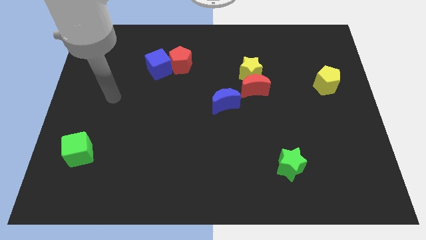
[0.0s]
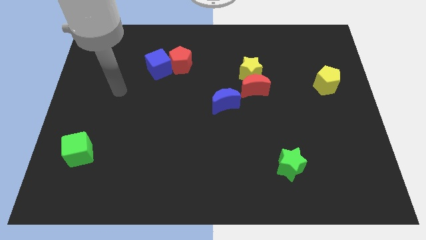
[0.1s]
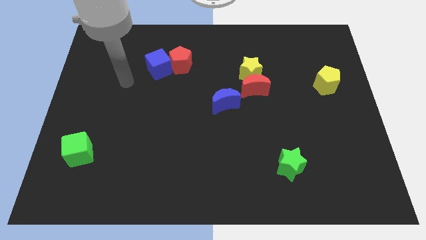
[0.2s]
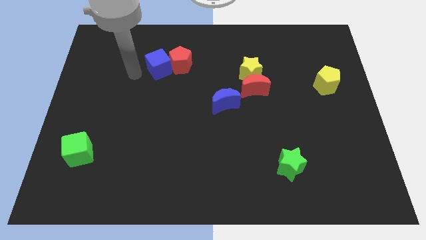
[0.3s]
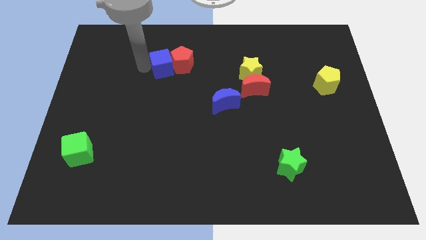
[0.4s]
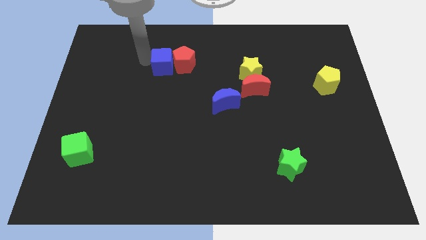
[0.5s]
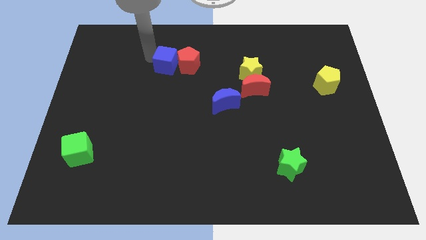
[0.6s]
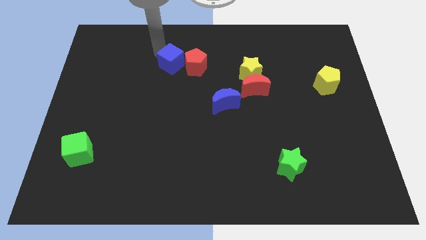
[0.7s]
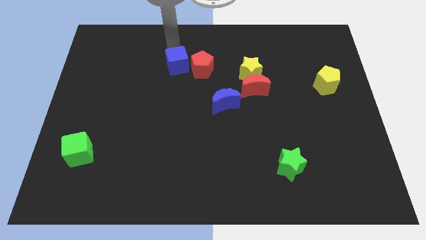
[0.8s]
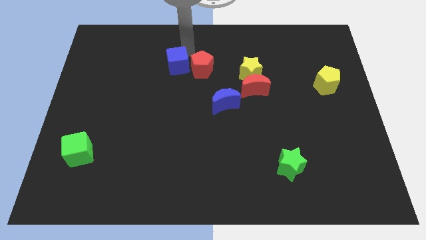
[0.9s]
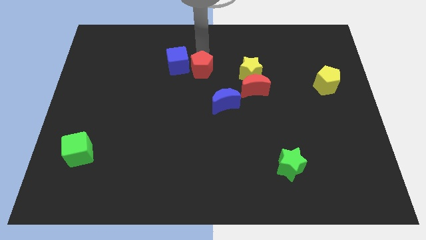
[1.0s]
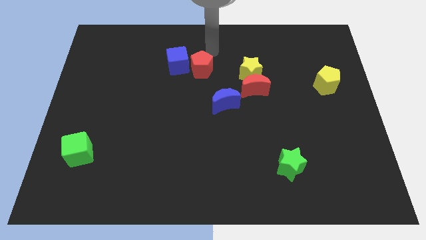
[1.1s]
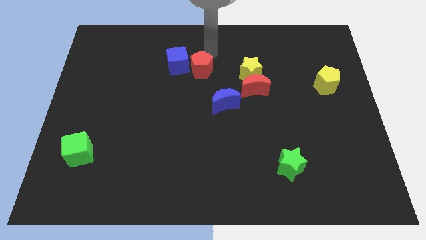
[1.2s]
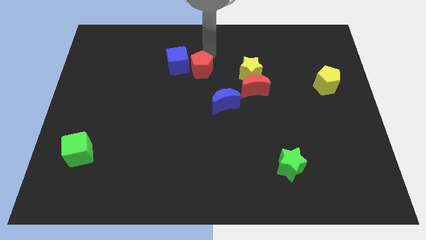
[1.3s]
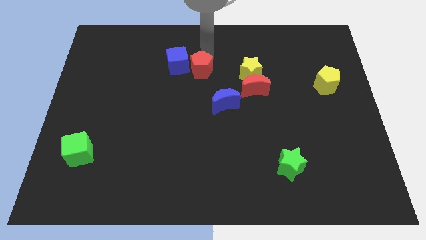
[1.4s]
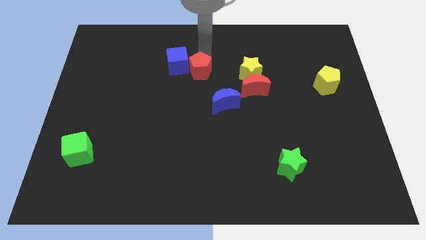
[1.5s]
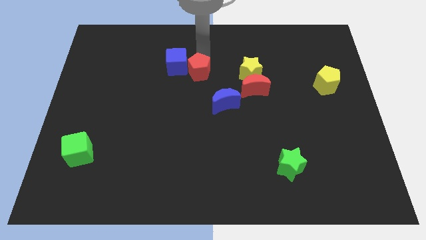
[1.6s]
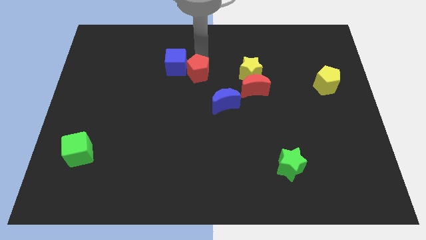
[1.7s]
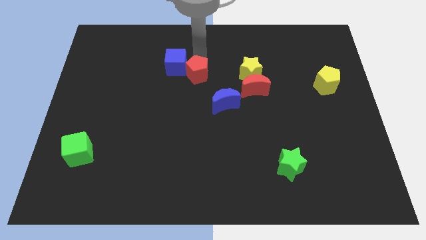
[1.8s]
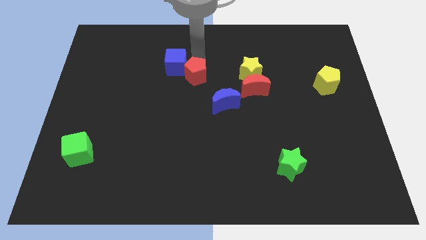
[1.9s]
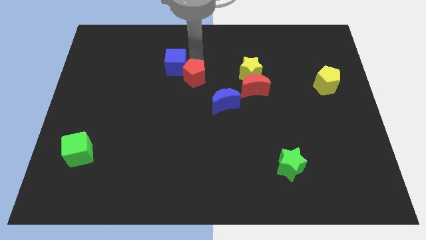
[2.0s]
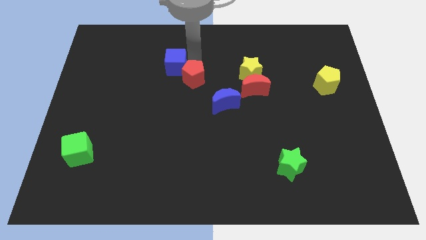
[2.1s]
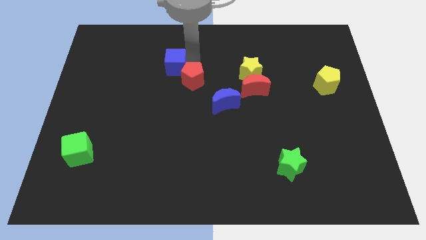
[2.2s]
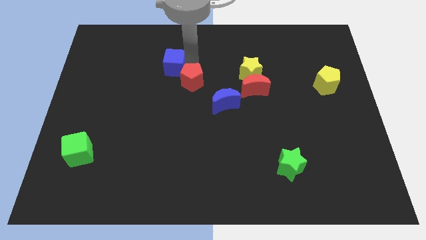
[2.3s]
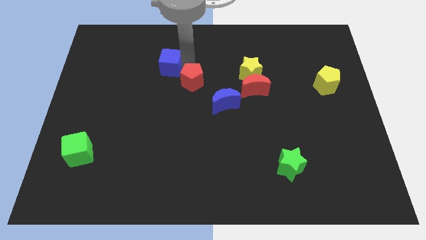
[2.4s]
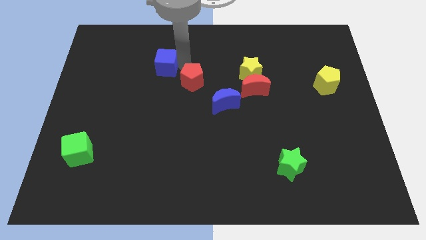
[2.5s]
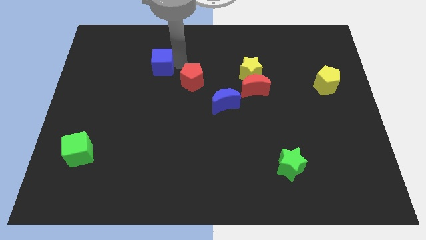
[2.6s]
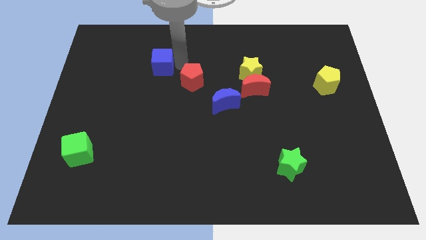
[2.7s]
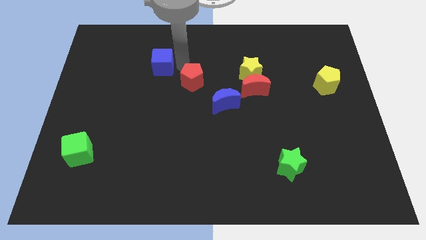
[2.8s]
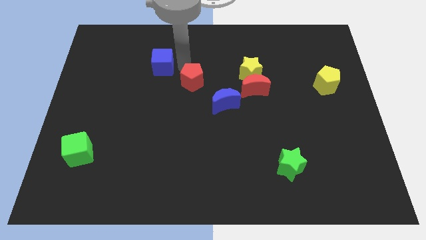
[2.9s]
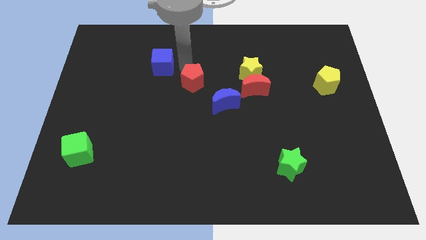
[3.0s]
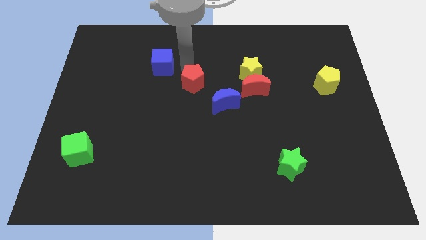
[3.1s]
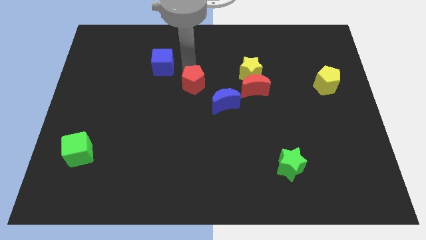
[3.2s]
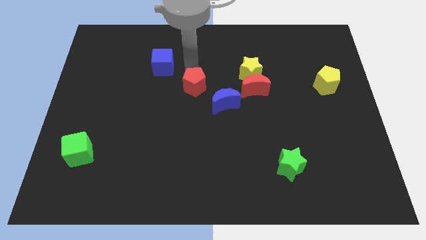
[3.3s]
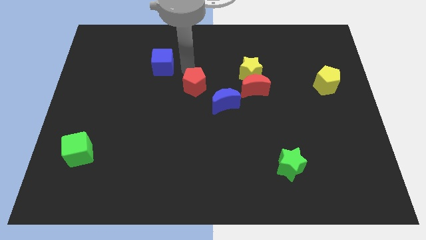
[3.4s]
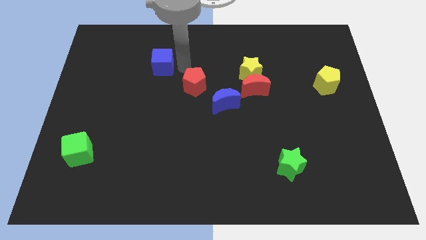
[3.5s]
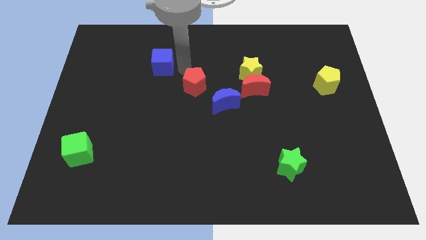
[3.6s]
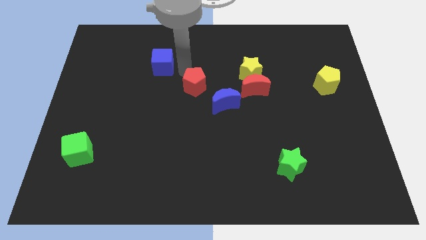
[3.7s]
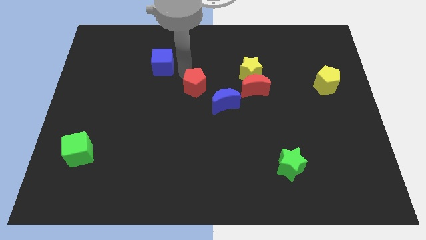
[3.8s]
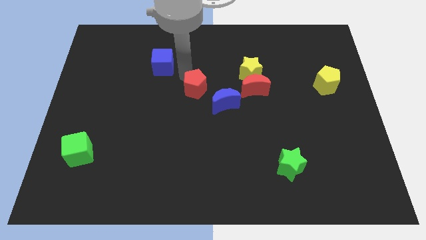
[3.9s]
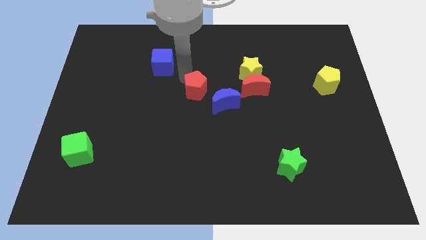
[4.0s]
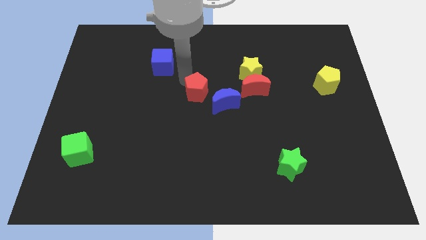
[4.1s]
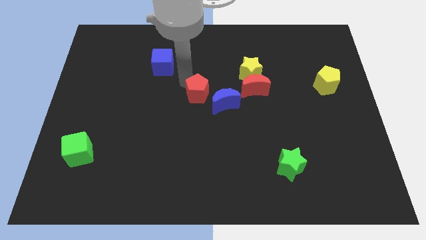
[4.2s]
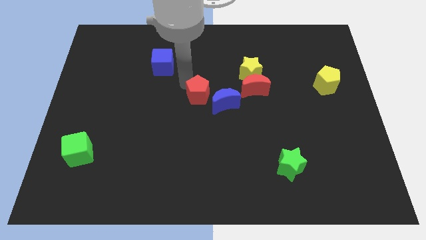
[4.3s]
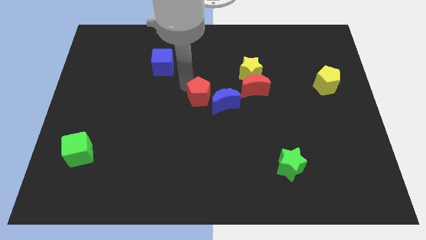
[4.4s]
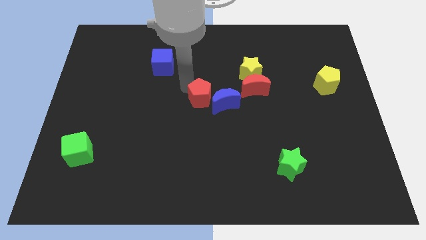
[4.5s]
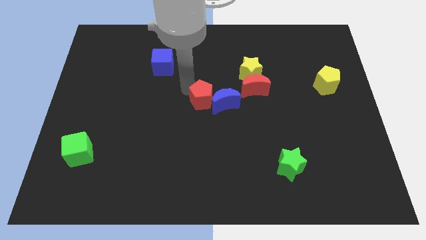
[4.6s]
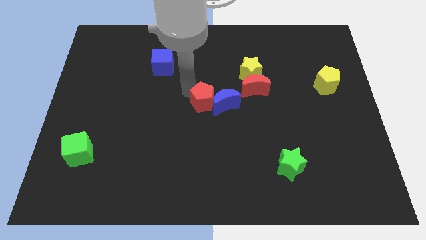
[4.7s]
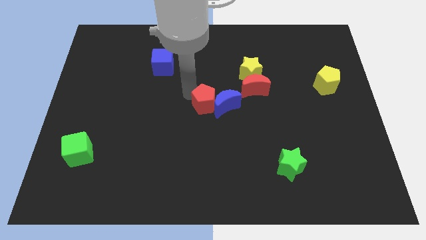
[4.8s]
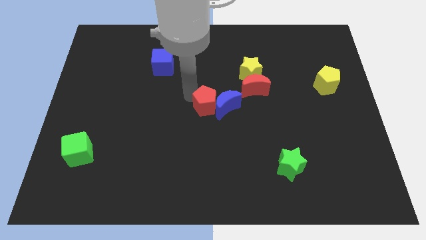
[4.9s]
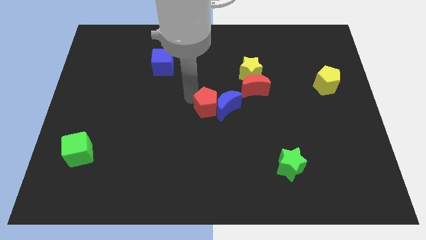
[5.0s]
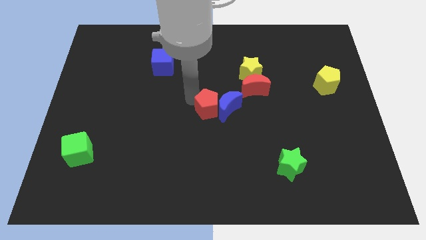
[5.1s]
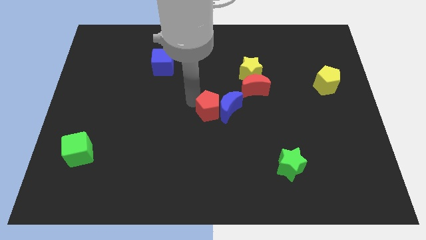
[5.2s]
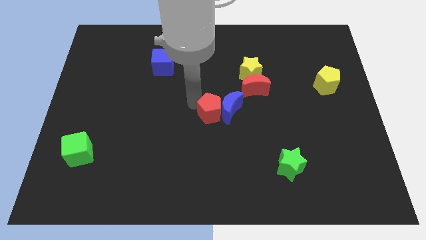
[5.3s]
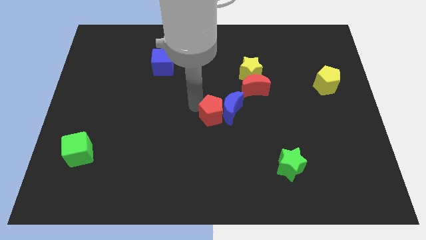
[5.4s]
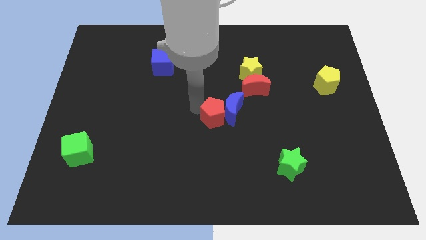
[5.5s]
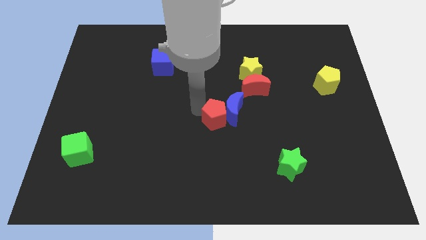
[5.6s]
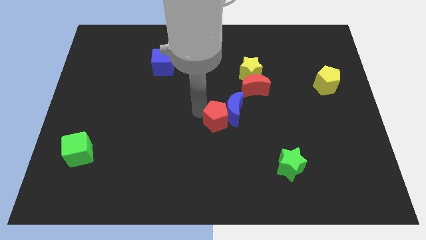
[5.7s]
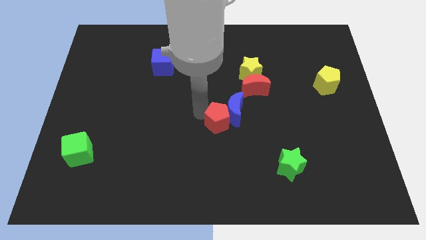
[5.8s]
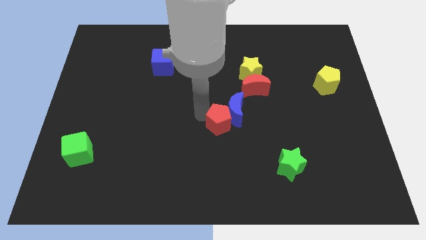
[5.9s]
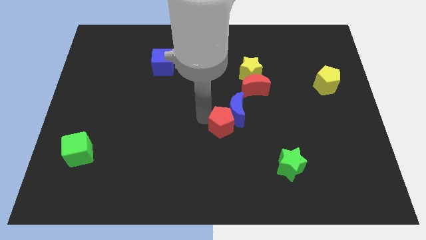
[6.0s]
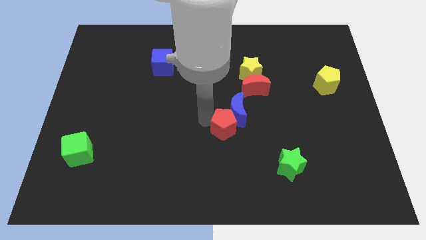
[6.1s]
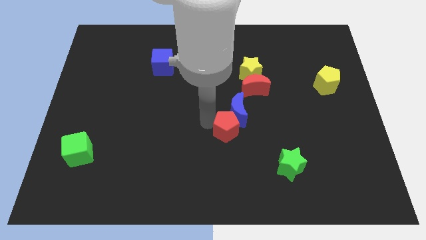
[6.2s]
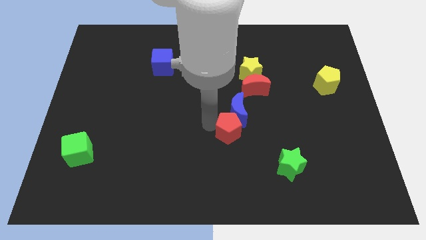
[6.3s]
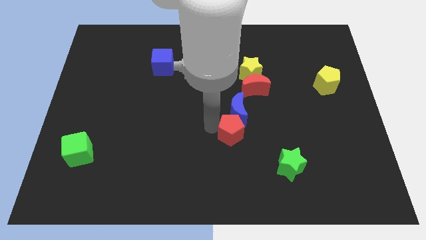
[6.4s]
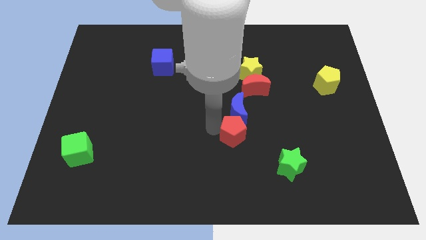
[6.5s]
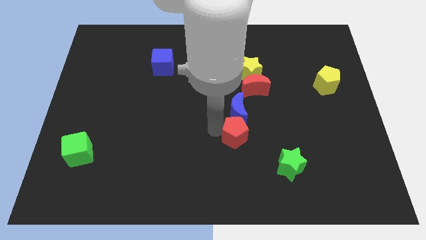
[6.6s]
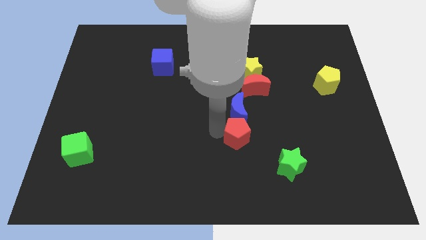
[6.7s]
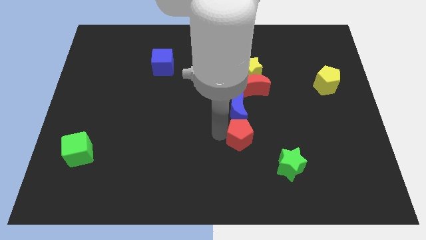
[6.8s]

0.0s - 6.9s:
put the red pentagon diagonally up and to the left of the green star

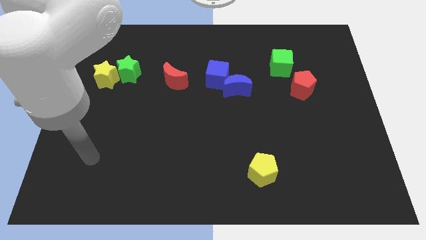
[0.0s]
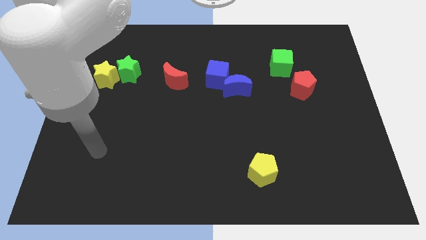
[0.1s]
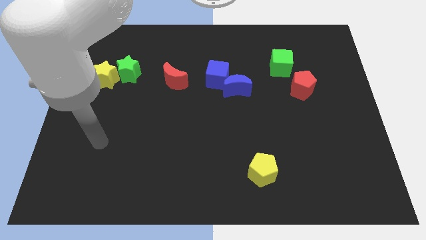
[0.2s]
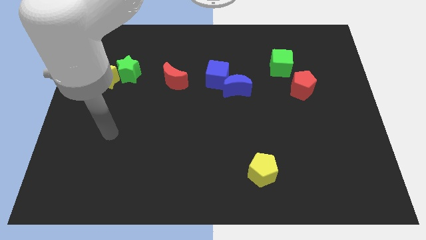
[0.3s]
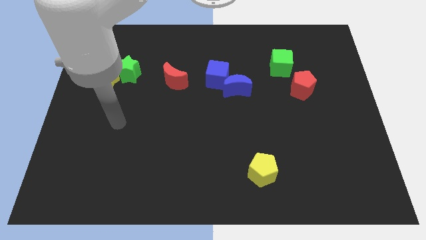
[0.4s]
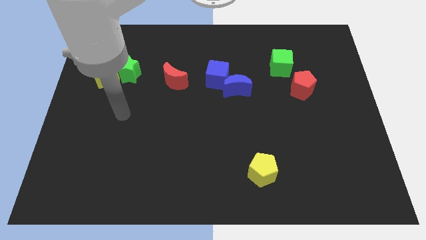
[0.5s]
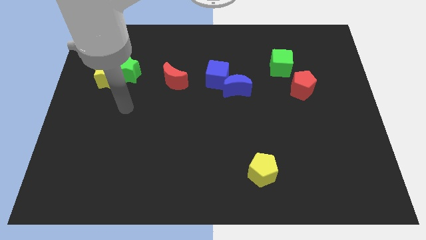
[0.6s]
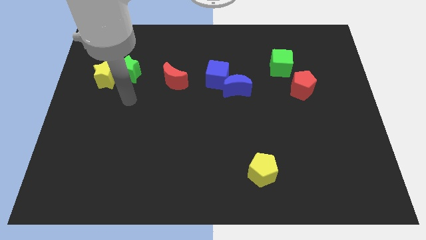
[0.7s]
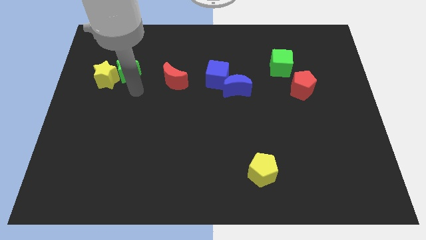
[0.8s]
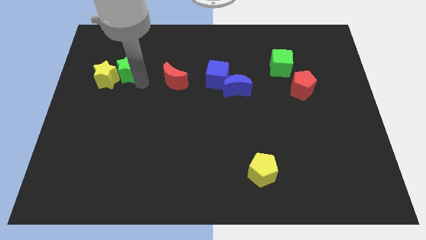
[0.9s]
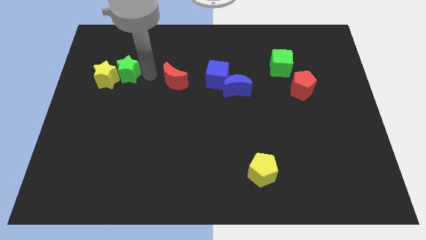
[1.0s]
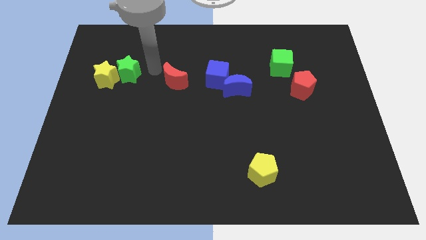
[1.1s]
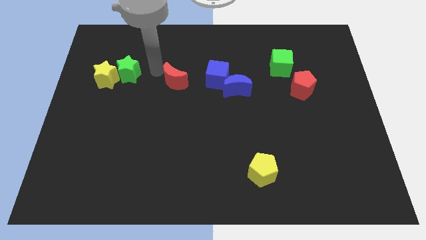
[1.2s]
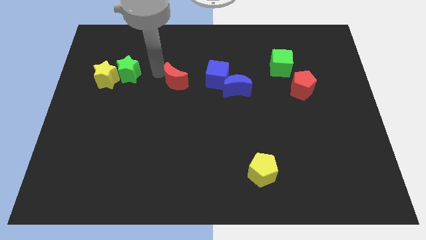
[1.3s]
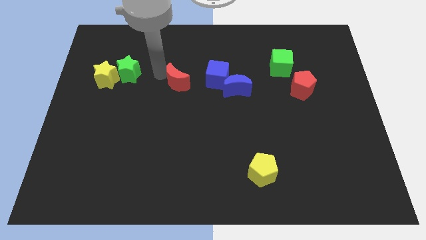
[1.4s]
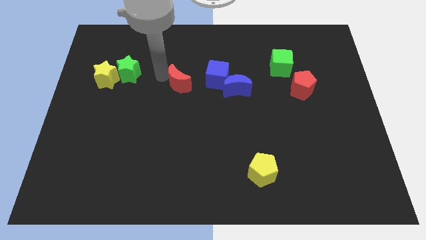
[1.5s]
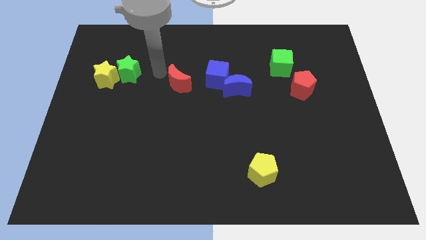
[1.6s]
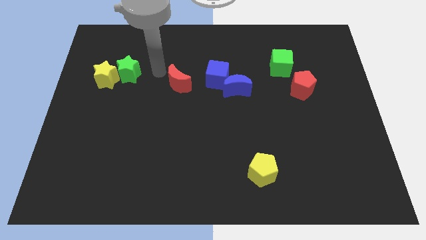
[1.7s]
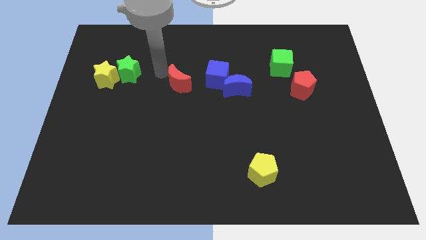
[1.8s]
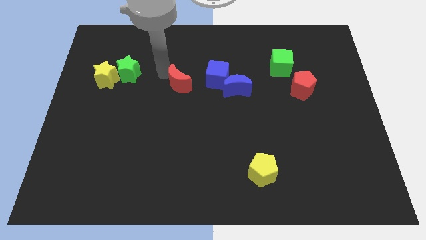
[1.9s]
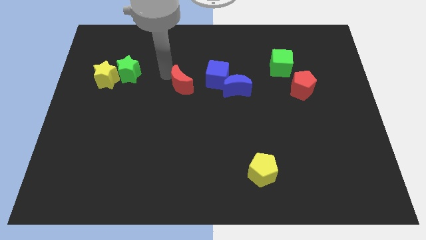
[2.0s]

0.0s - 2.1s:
push the red moon to the bottom left of the blue cube
